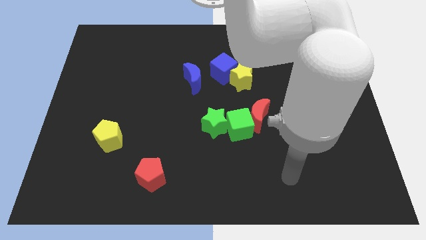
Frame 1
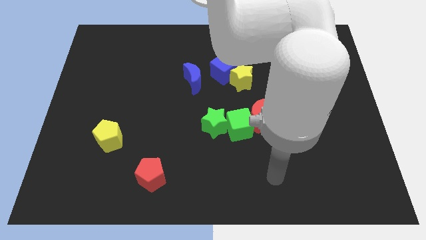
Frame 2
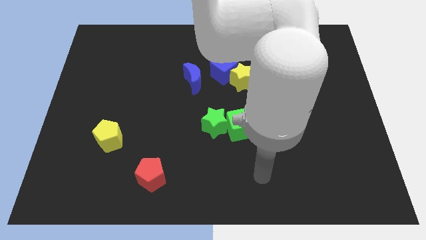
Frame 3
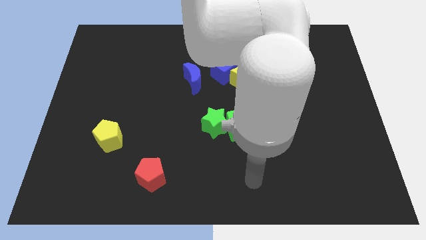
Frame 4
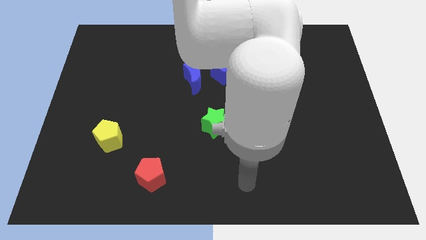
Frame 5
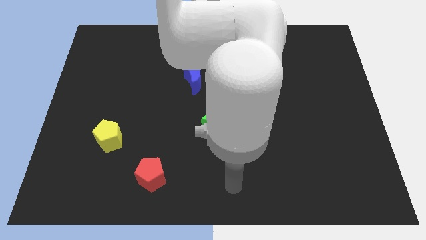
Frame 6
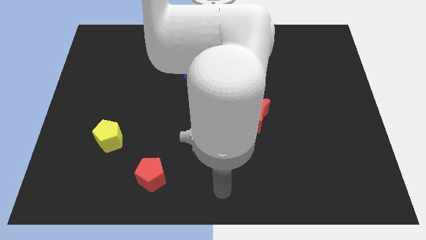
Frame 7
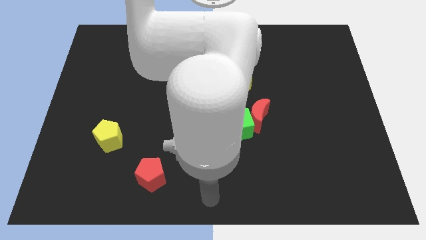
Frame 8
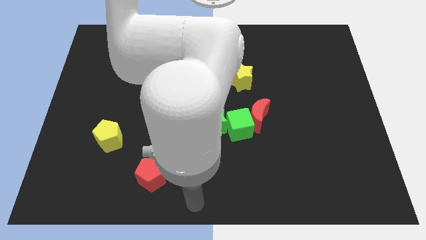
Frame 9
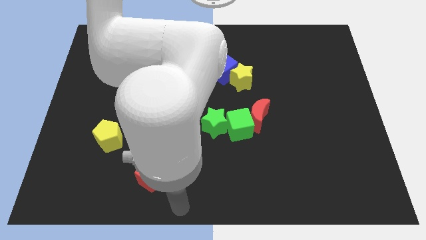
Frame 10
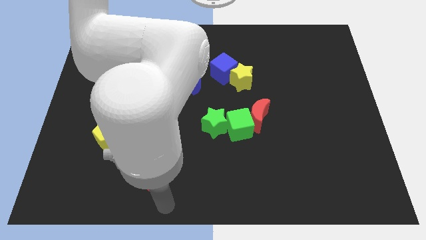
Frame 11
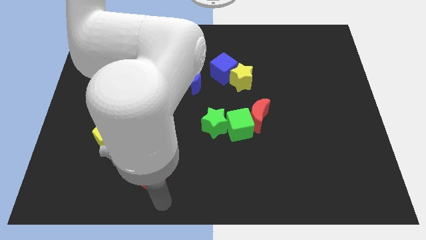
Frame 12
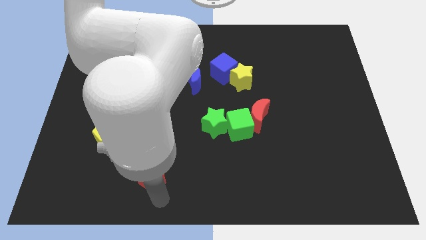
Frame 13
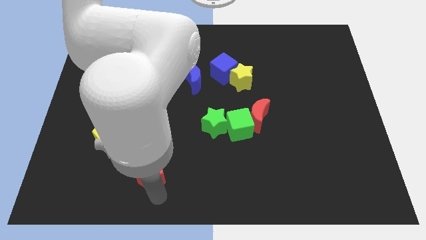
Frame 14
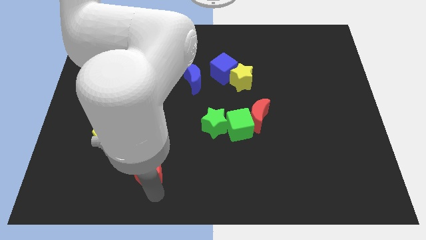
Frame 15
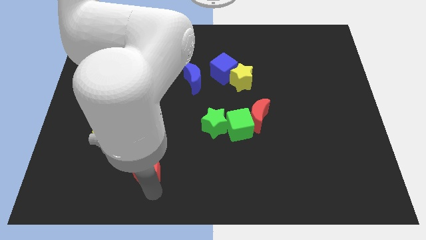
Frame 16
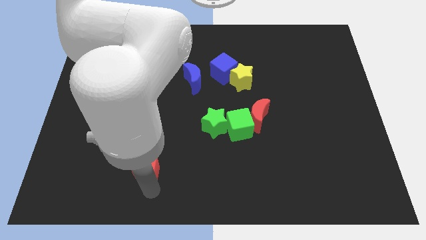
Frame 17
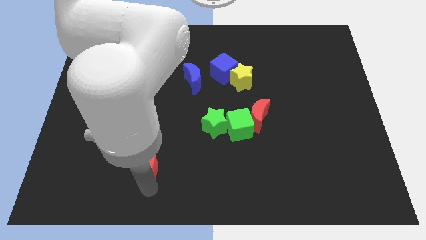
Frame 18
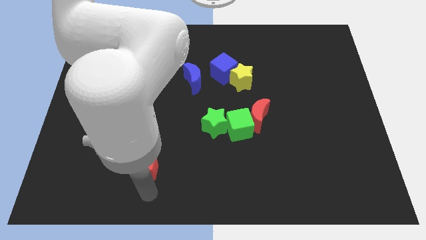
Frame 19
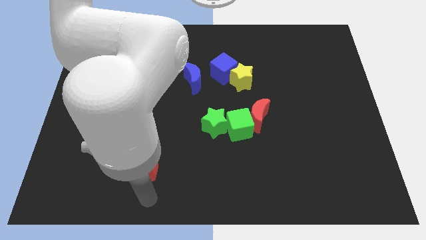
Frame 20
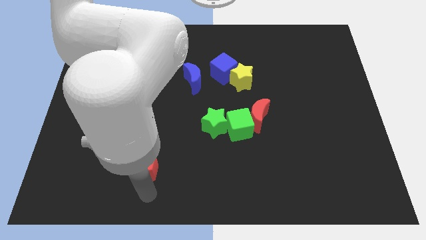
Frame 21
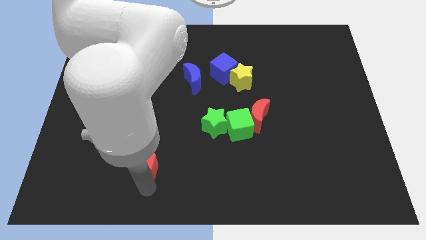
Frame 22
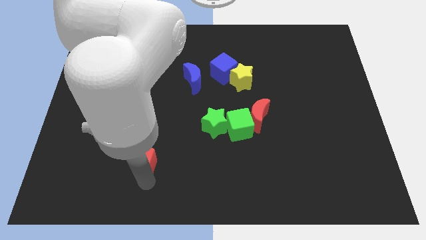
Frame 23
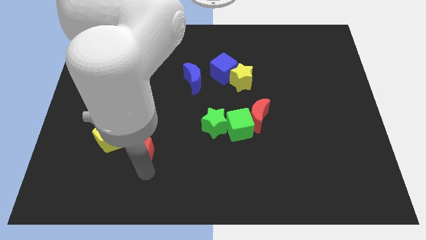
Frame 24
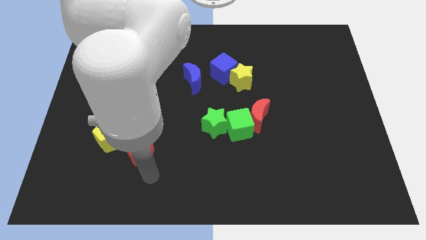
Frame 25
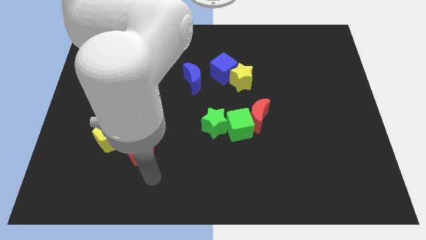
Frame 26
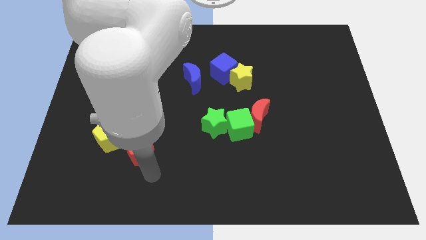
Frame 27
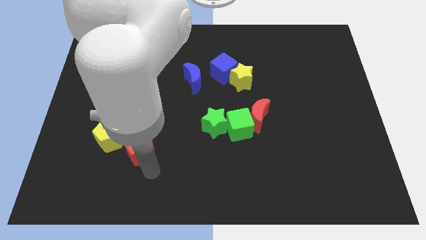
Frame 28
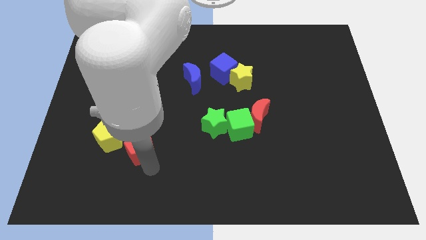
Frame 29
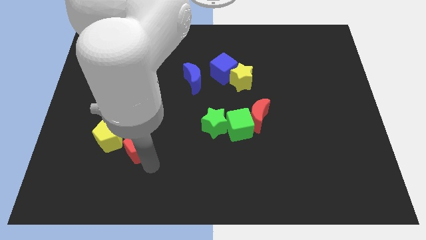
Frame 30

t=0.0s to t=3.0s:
move the red pentagon a little upwards and left

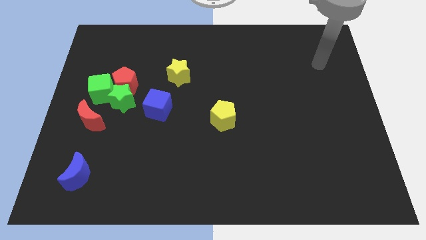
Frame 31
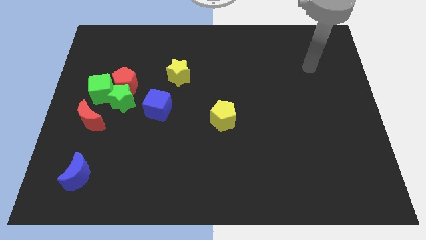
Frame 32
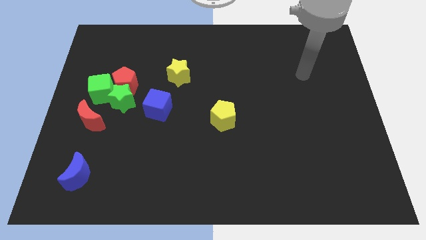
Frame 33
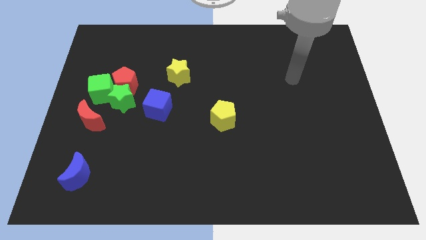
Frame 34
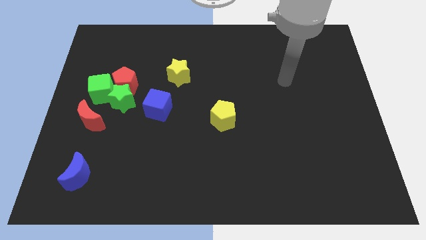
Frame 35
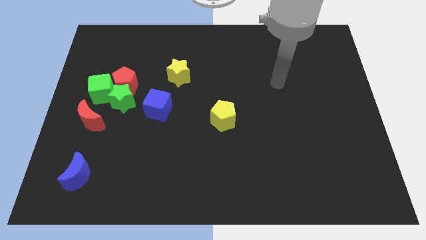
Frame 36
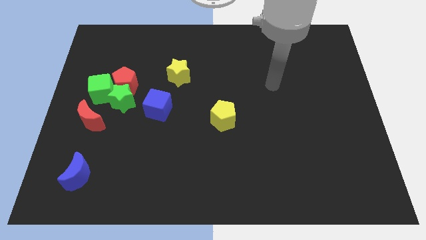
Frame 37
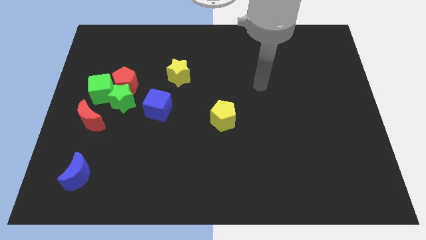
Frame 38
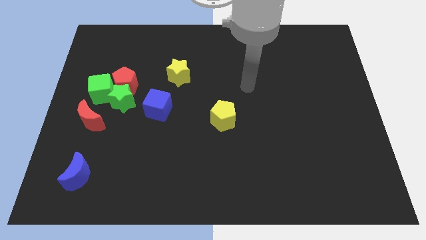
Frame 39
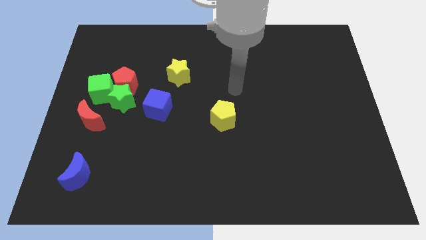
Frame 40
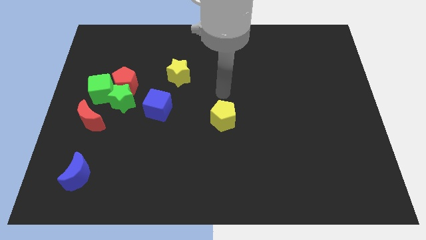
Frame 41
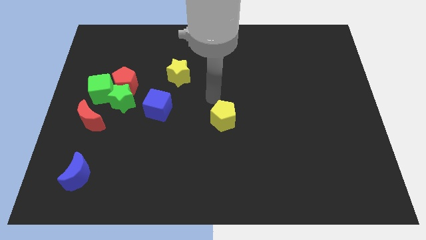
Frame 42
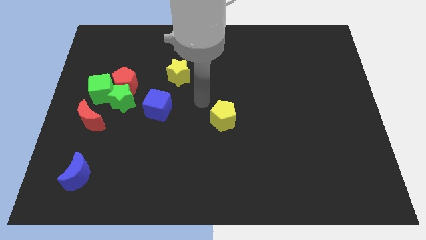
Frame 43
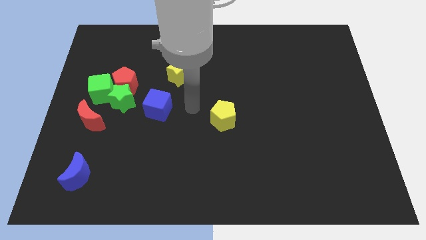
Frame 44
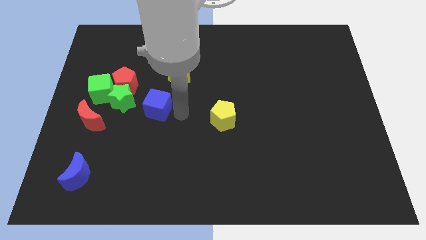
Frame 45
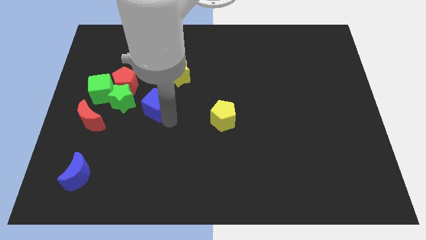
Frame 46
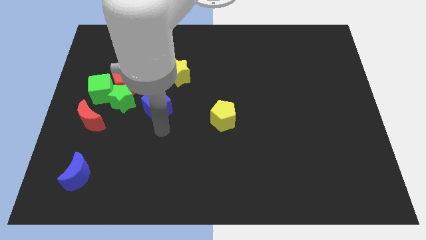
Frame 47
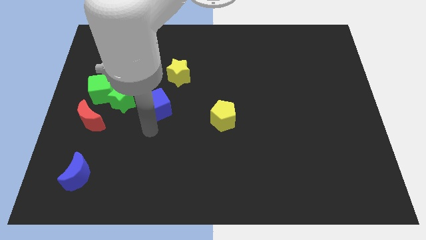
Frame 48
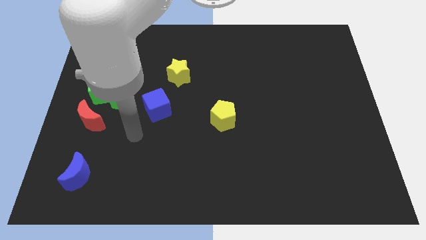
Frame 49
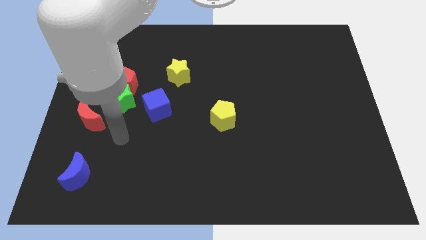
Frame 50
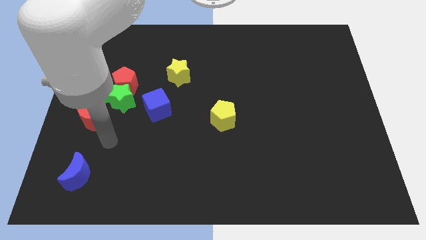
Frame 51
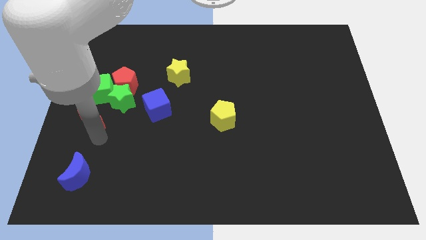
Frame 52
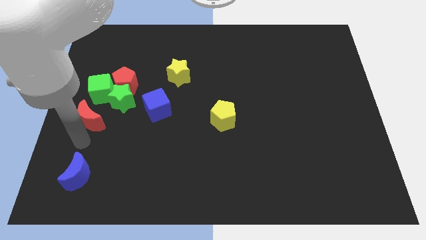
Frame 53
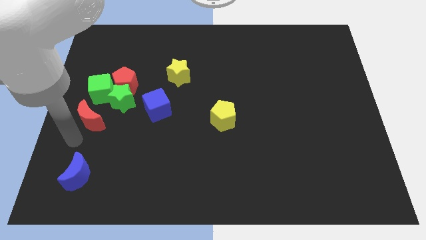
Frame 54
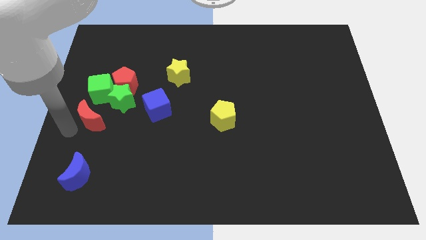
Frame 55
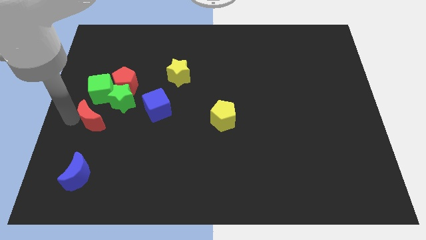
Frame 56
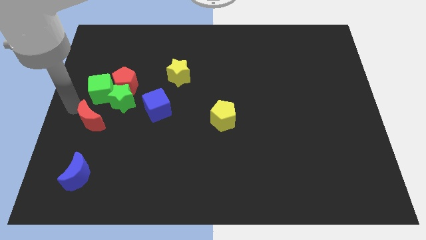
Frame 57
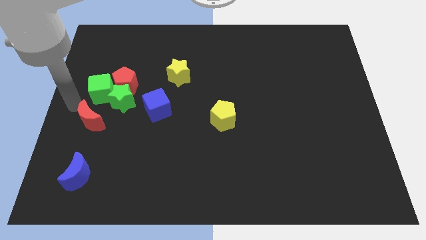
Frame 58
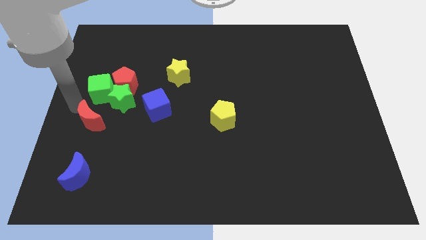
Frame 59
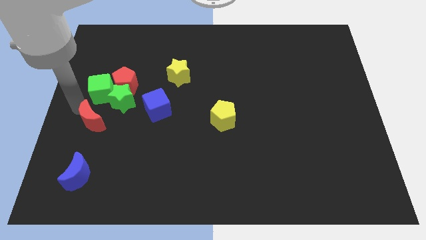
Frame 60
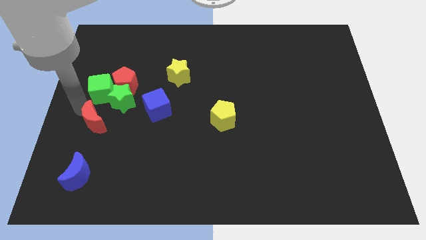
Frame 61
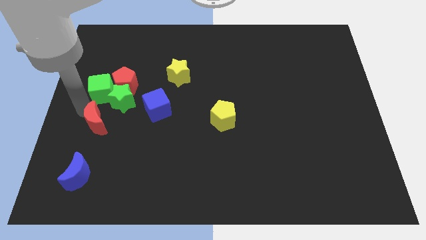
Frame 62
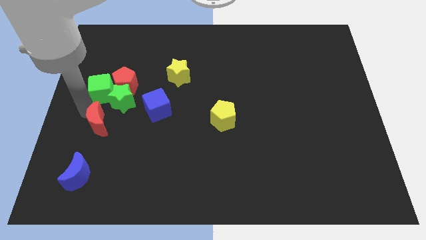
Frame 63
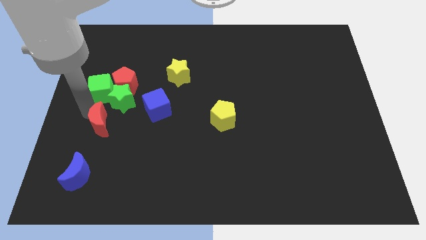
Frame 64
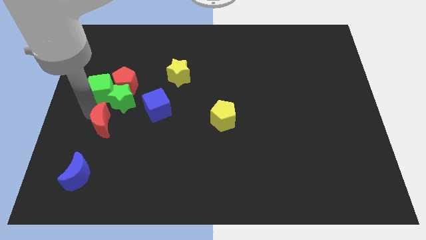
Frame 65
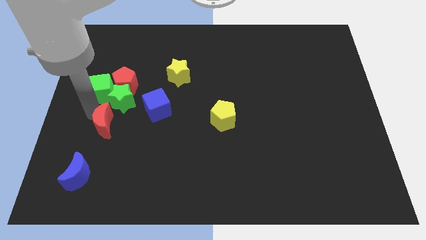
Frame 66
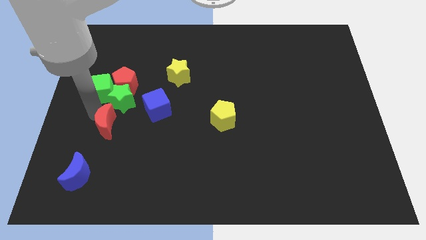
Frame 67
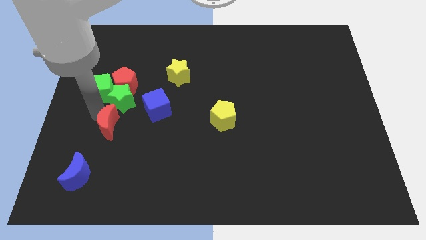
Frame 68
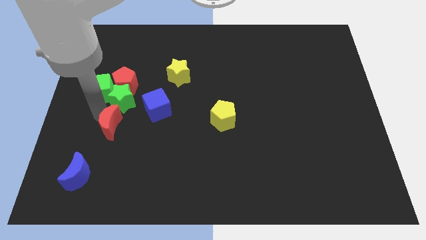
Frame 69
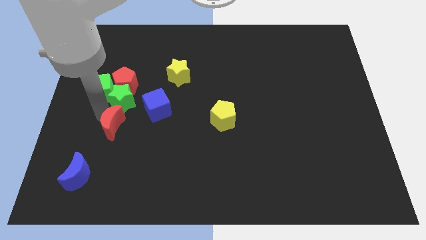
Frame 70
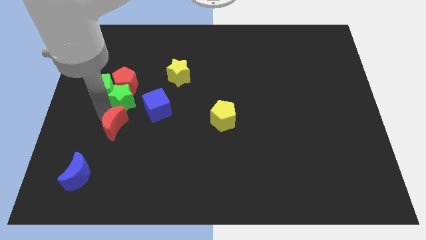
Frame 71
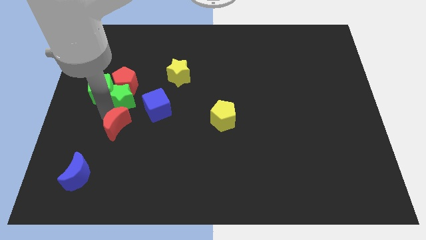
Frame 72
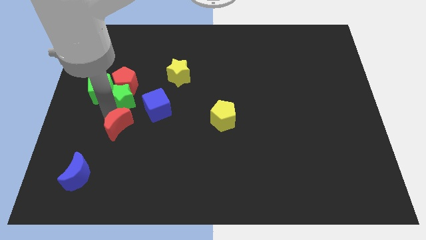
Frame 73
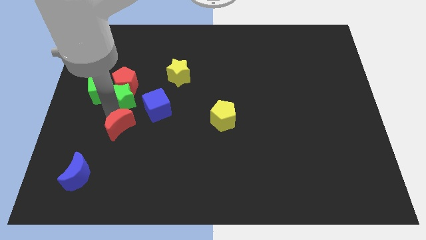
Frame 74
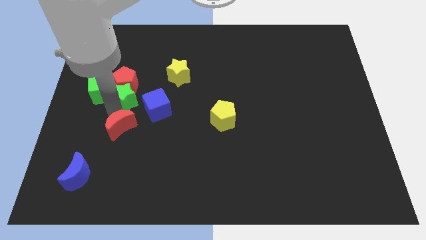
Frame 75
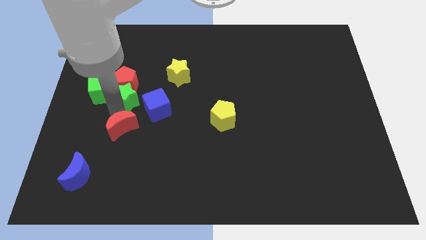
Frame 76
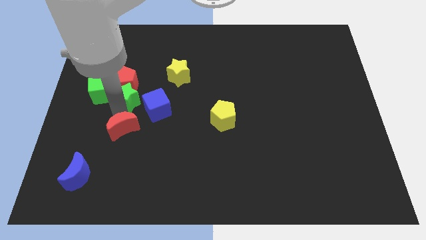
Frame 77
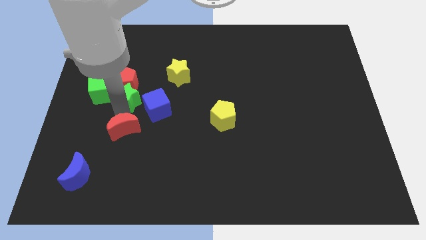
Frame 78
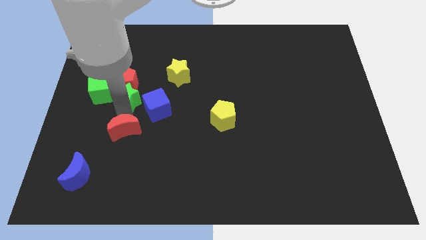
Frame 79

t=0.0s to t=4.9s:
slightly push the red moon downwards and to the right
